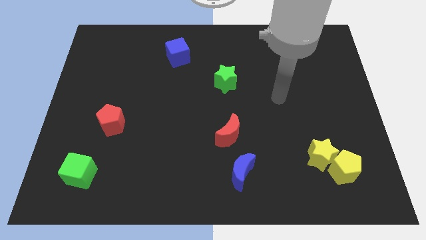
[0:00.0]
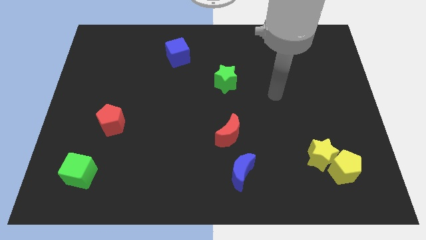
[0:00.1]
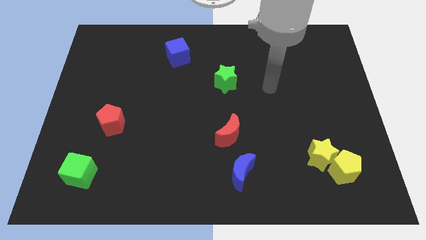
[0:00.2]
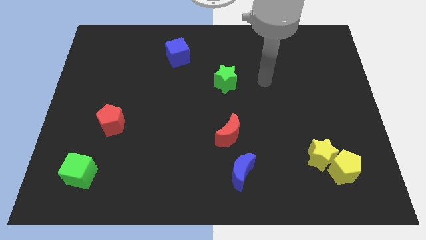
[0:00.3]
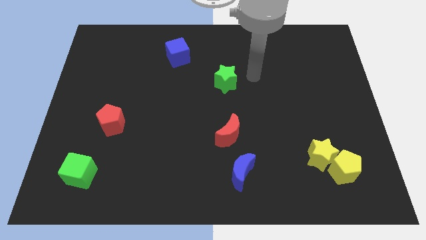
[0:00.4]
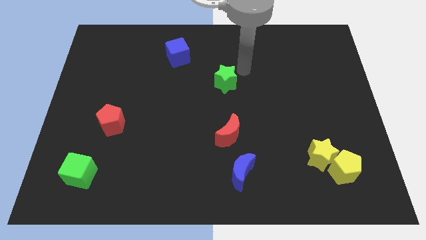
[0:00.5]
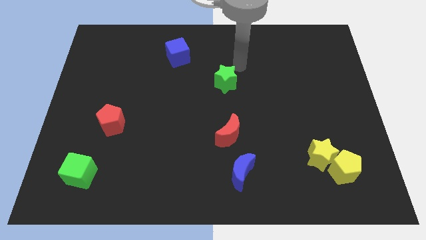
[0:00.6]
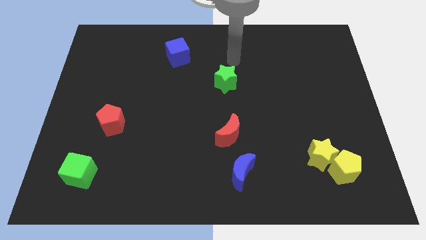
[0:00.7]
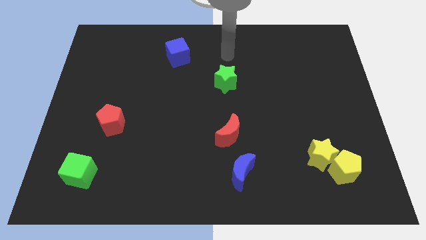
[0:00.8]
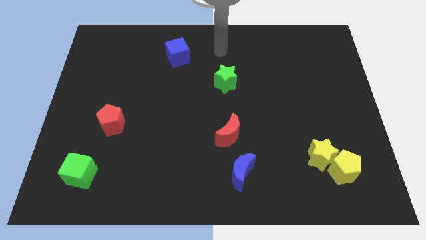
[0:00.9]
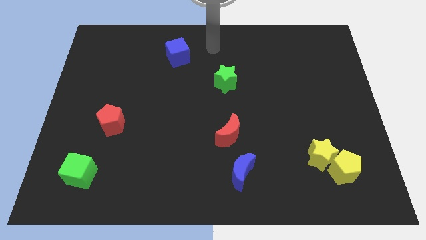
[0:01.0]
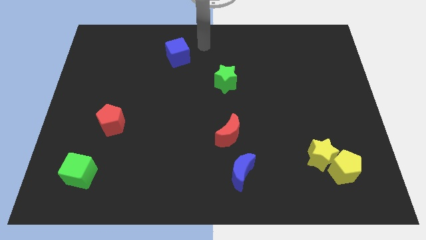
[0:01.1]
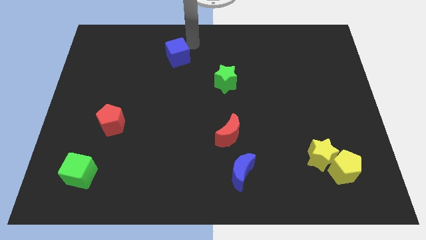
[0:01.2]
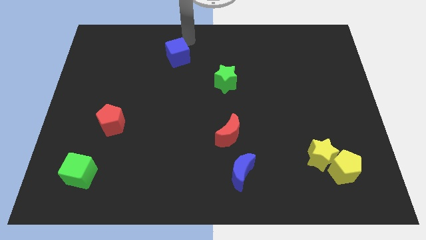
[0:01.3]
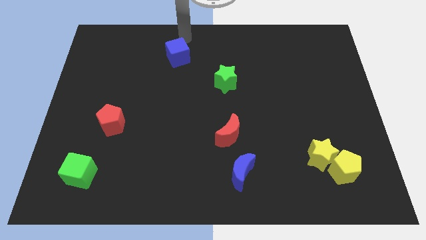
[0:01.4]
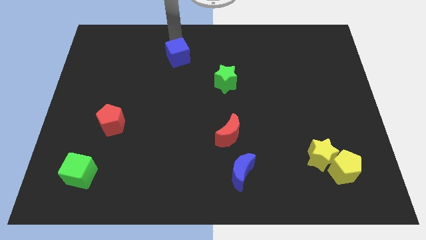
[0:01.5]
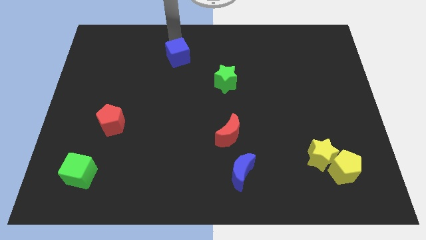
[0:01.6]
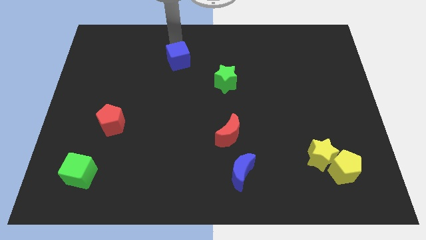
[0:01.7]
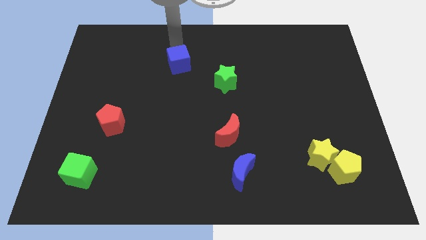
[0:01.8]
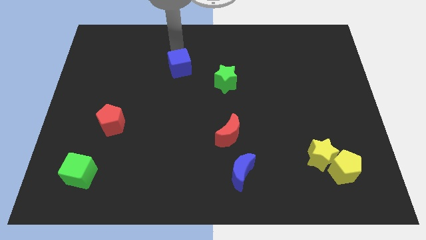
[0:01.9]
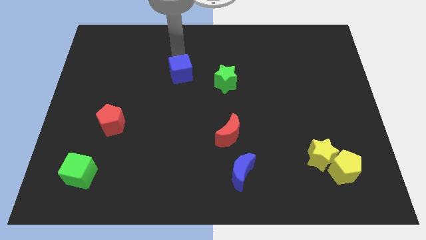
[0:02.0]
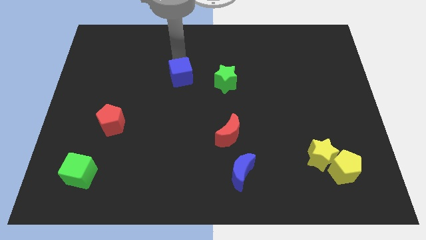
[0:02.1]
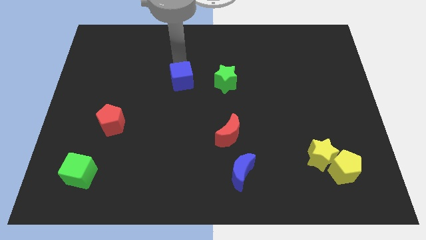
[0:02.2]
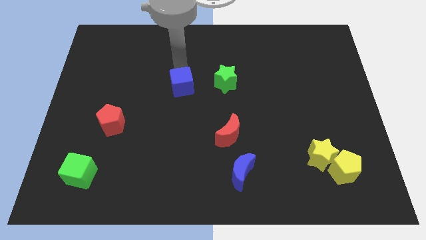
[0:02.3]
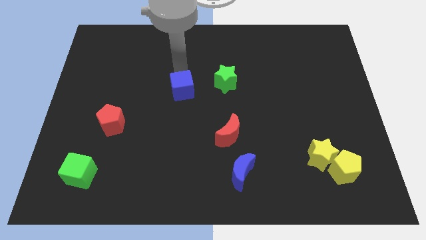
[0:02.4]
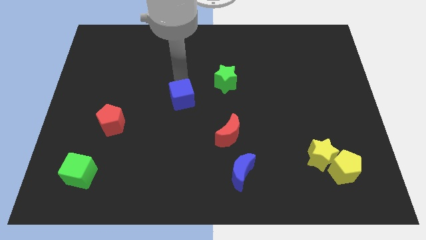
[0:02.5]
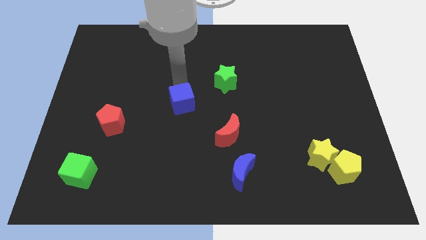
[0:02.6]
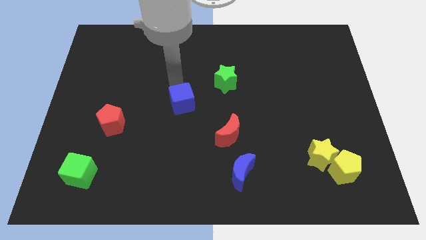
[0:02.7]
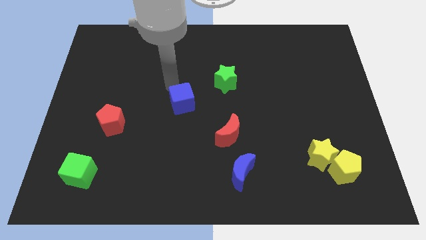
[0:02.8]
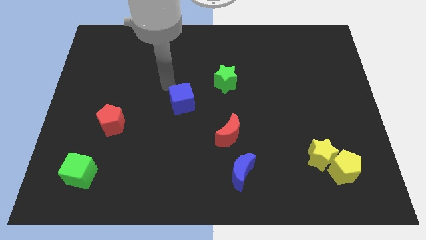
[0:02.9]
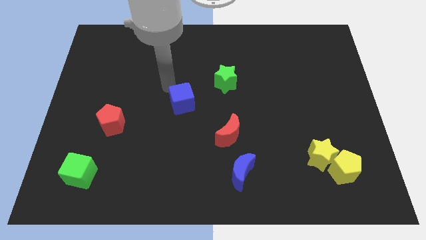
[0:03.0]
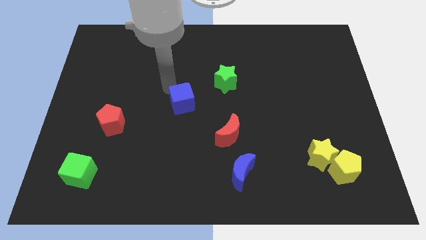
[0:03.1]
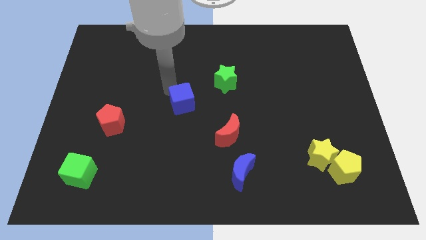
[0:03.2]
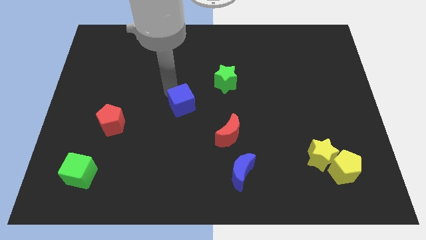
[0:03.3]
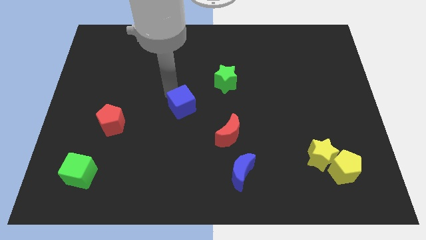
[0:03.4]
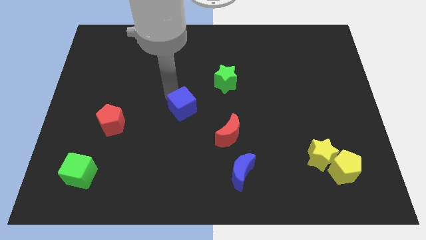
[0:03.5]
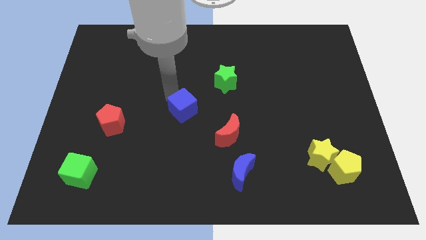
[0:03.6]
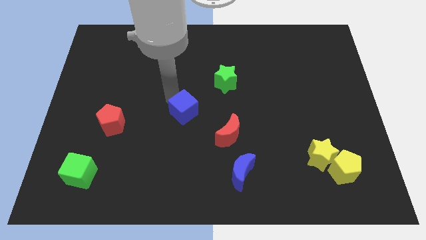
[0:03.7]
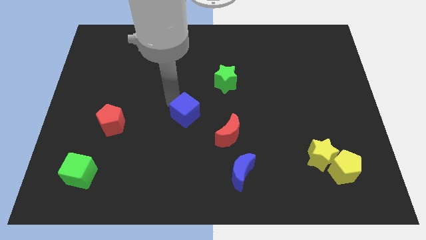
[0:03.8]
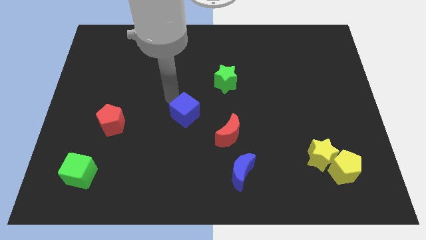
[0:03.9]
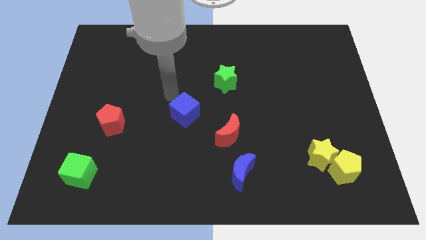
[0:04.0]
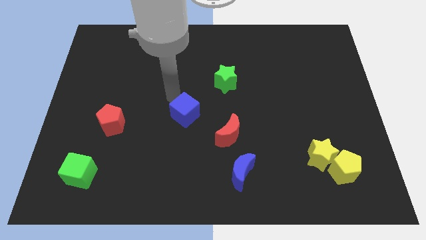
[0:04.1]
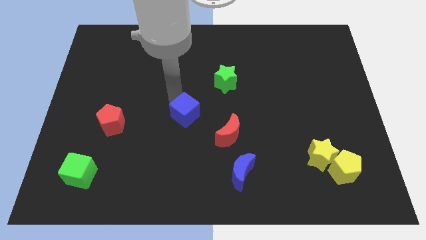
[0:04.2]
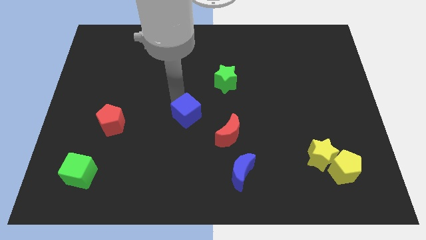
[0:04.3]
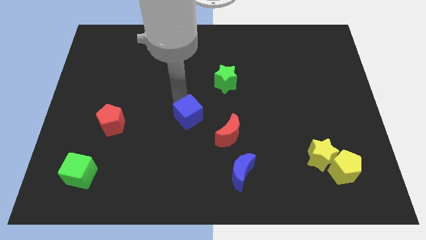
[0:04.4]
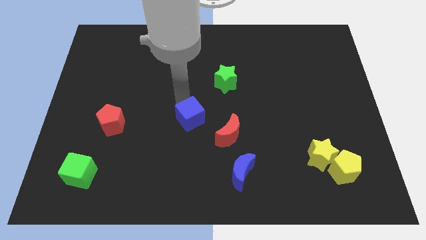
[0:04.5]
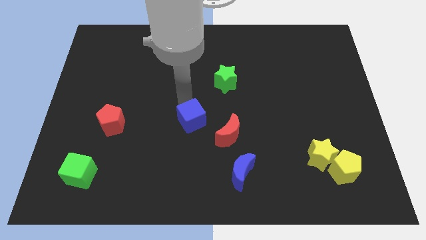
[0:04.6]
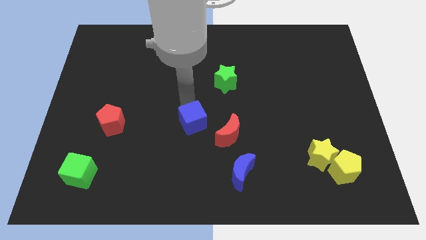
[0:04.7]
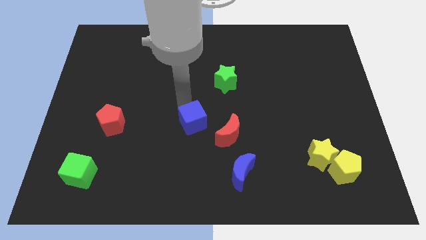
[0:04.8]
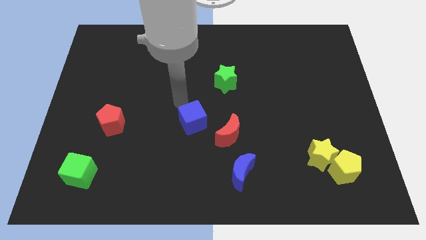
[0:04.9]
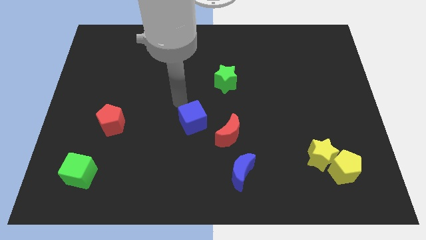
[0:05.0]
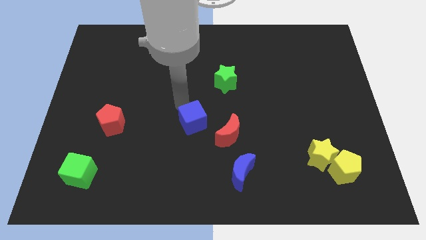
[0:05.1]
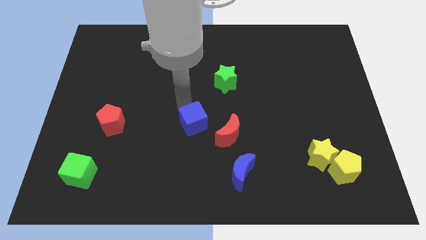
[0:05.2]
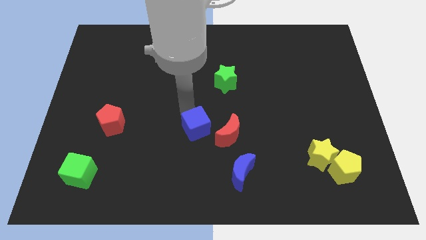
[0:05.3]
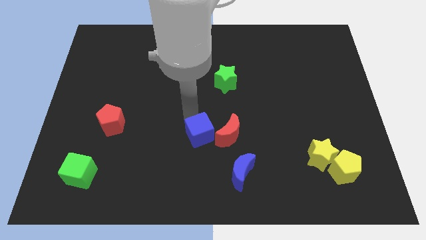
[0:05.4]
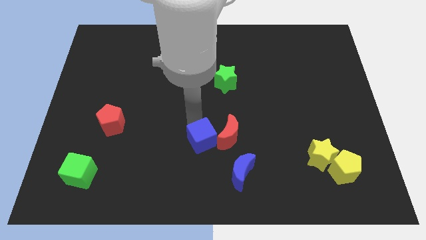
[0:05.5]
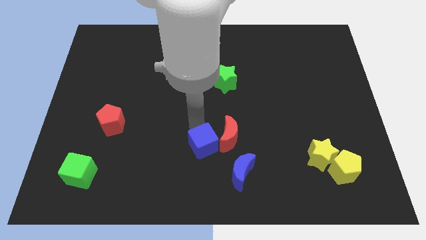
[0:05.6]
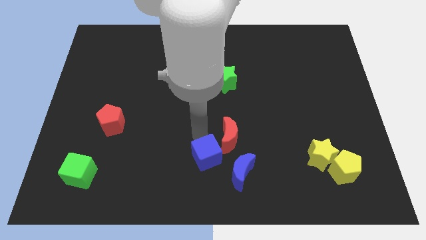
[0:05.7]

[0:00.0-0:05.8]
push the blue cube to the bottom side of the red moon

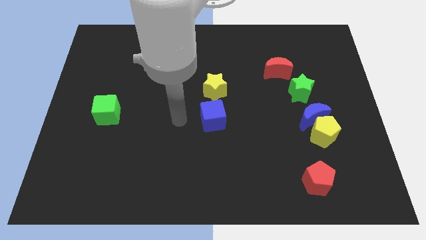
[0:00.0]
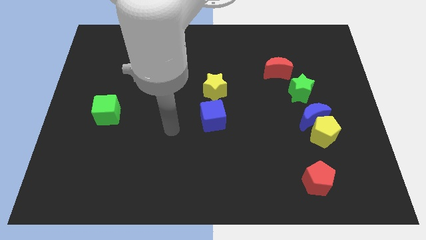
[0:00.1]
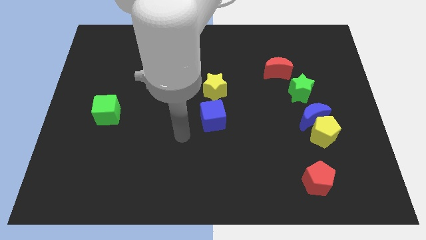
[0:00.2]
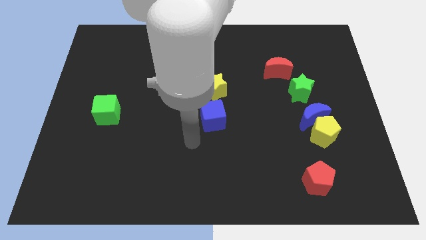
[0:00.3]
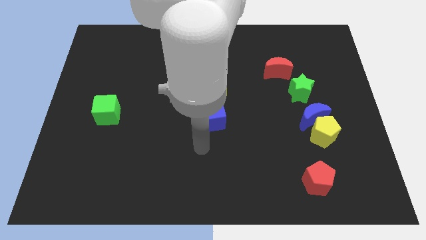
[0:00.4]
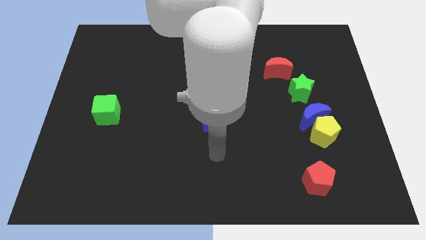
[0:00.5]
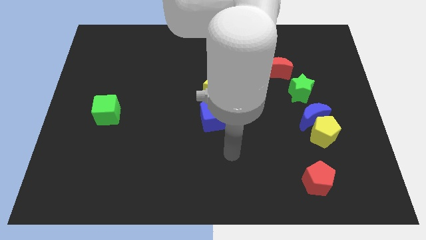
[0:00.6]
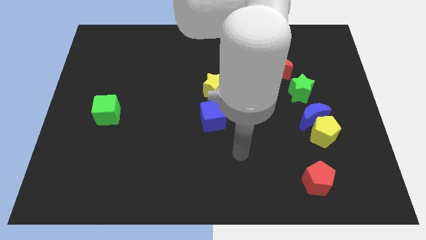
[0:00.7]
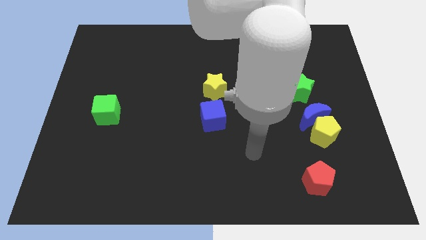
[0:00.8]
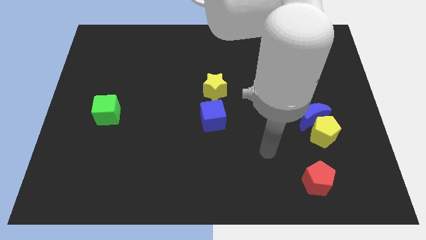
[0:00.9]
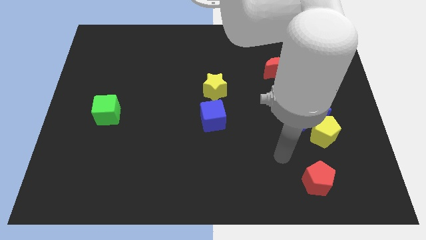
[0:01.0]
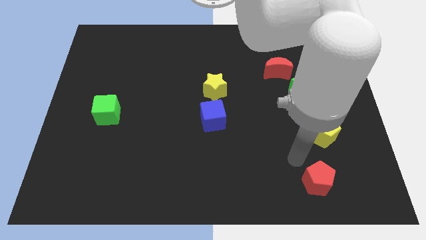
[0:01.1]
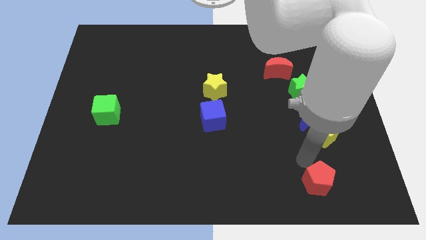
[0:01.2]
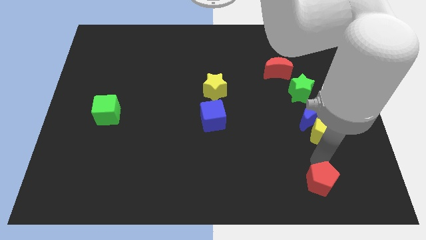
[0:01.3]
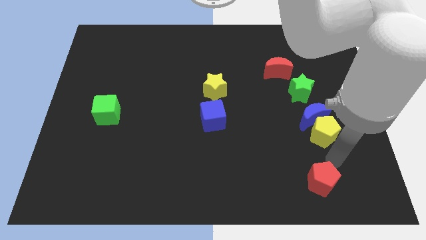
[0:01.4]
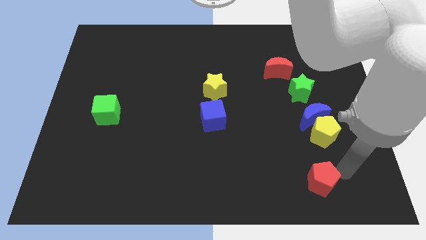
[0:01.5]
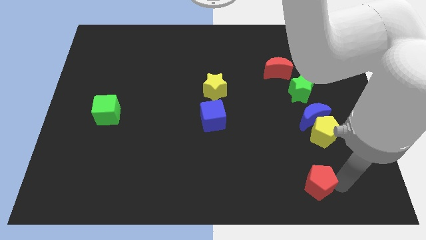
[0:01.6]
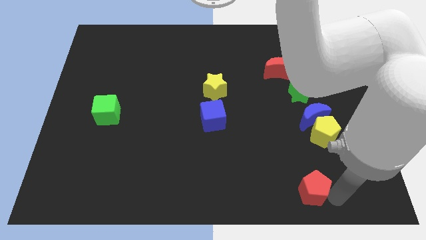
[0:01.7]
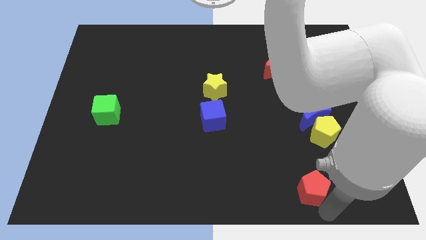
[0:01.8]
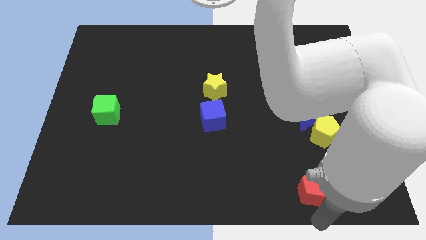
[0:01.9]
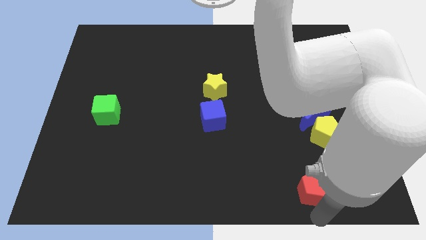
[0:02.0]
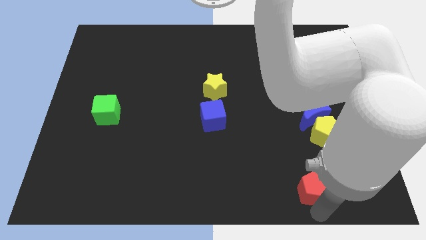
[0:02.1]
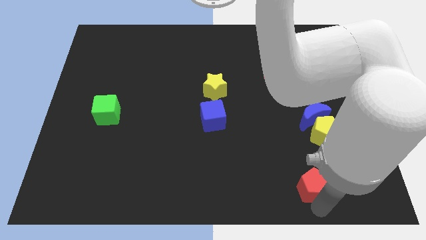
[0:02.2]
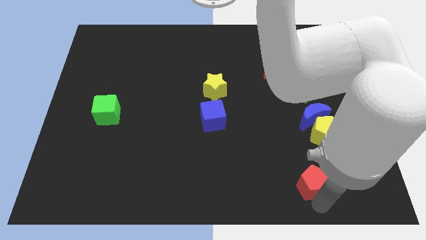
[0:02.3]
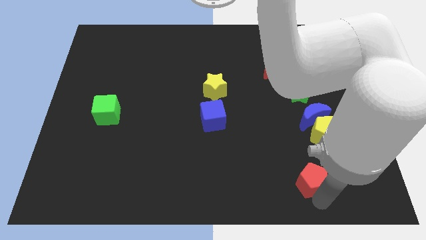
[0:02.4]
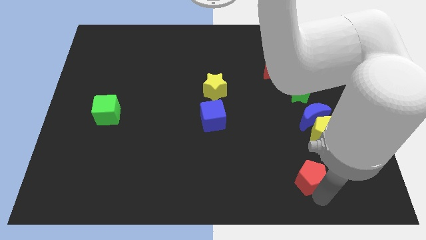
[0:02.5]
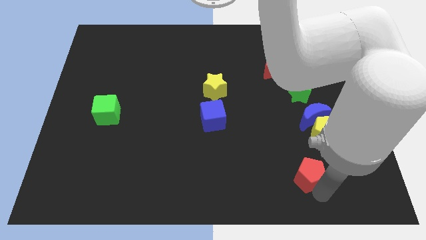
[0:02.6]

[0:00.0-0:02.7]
slide the red pentagon diagonally down and to the left of the yellow pentagon
